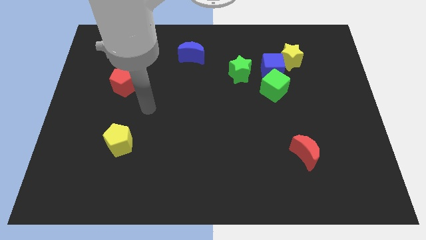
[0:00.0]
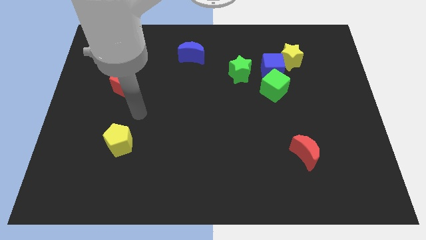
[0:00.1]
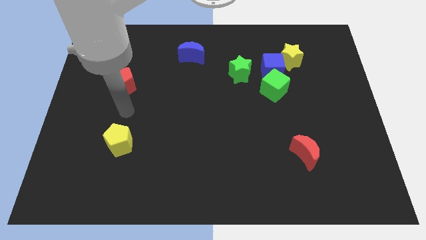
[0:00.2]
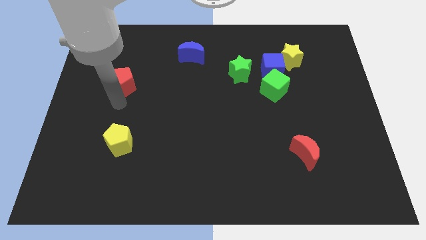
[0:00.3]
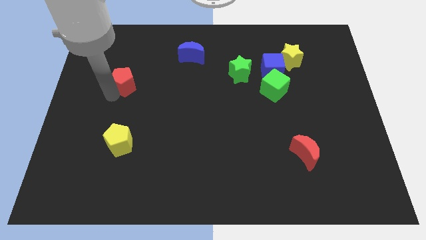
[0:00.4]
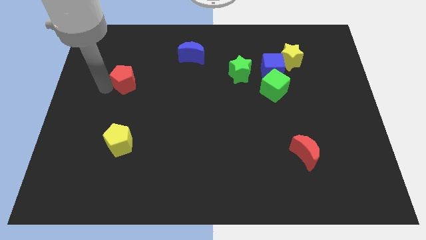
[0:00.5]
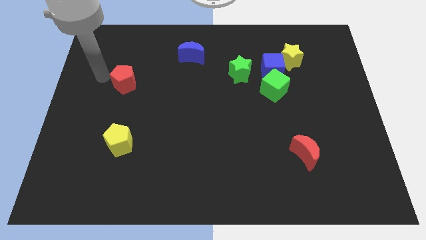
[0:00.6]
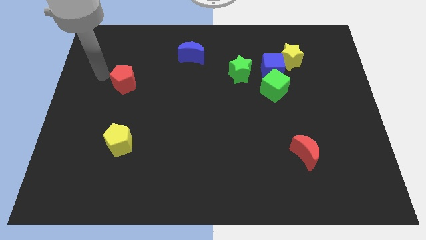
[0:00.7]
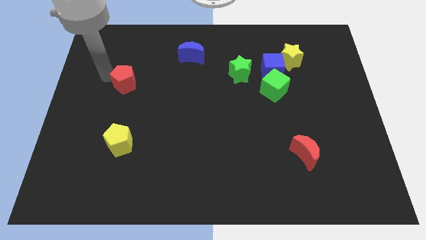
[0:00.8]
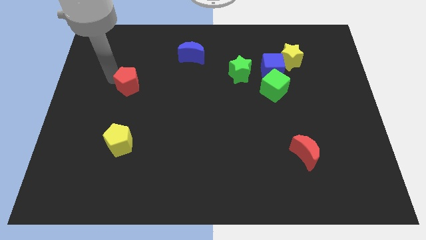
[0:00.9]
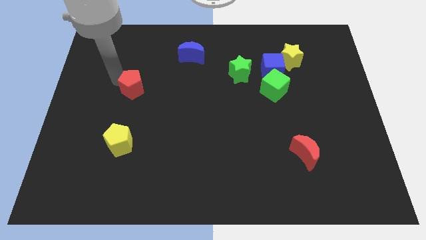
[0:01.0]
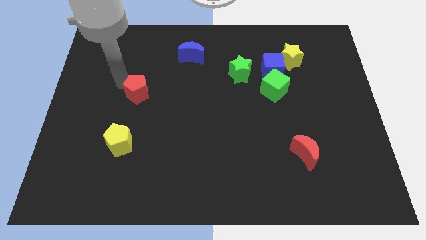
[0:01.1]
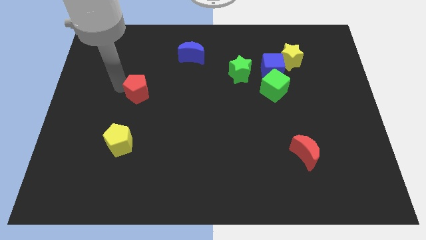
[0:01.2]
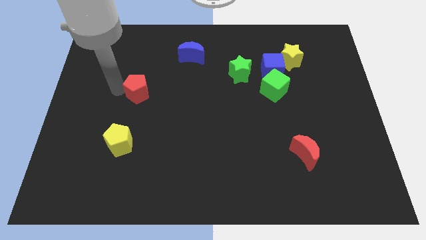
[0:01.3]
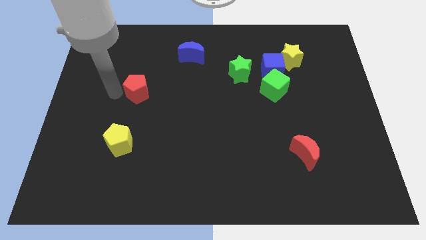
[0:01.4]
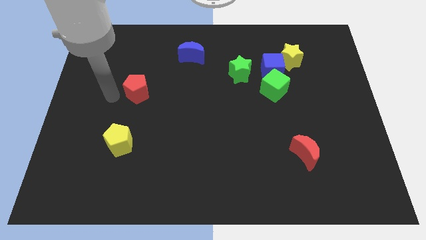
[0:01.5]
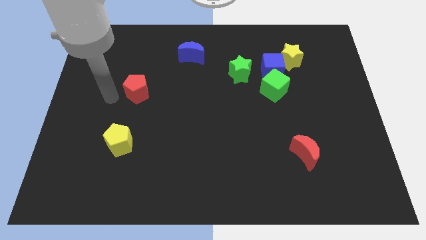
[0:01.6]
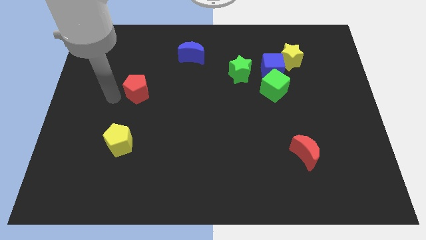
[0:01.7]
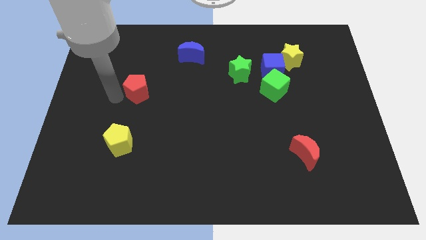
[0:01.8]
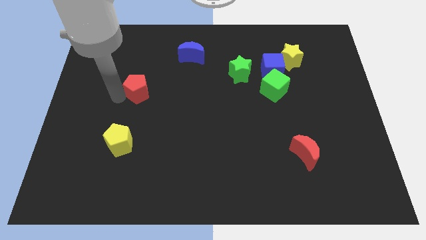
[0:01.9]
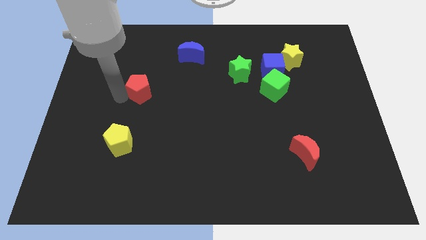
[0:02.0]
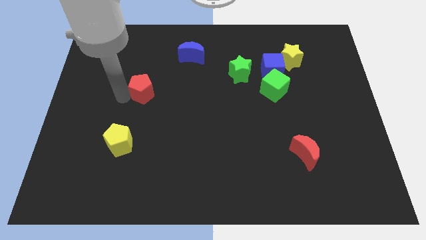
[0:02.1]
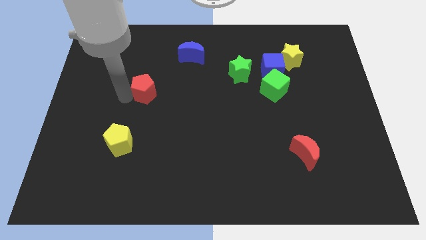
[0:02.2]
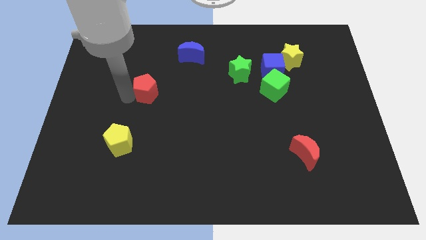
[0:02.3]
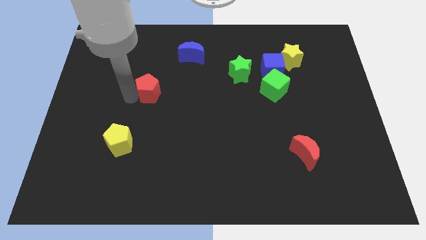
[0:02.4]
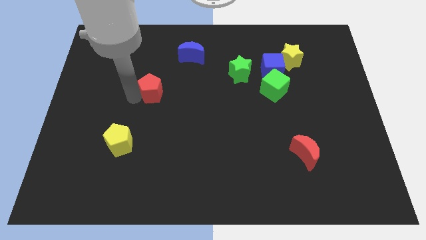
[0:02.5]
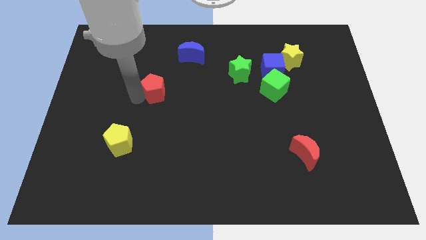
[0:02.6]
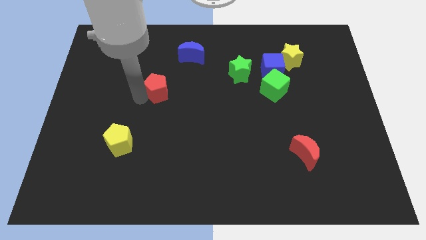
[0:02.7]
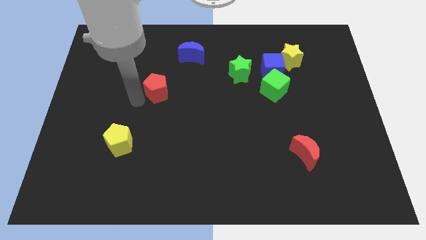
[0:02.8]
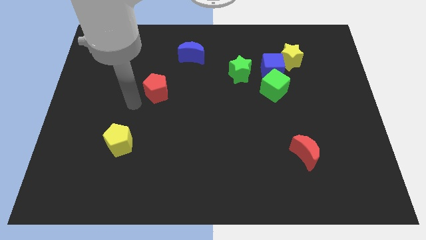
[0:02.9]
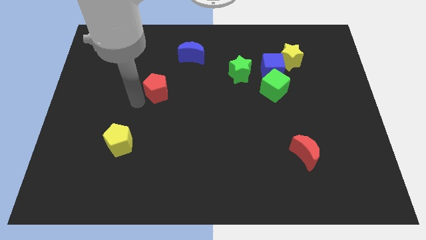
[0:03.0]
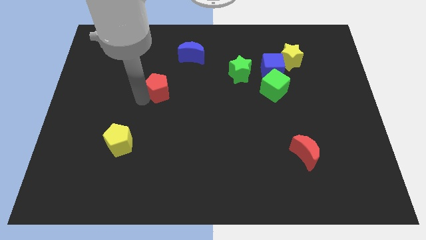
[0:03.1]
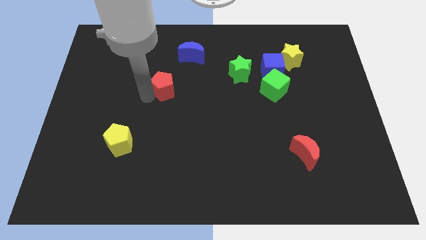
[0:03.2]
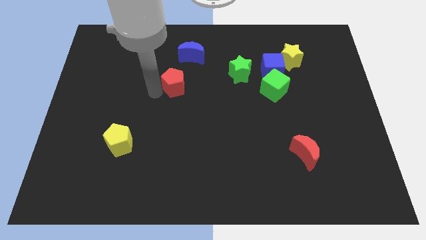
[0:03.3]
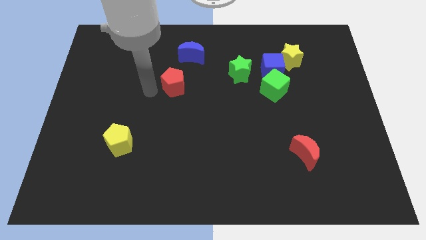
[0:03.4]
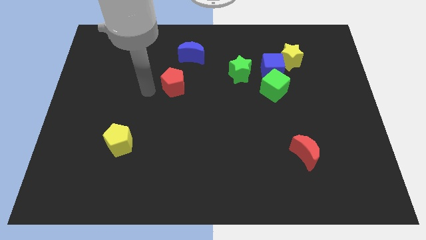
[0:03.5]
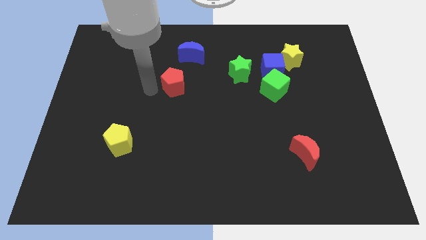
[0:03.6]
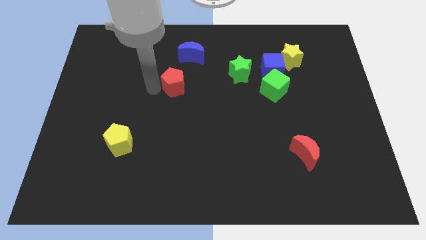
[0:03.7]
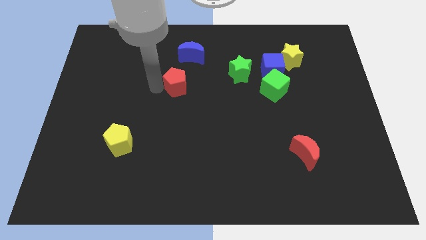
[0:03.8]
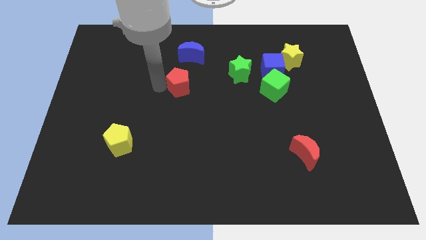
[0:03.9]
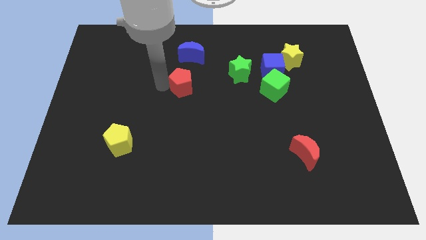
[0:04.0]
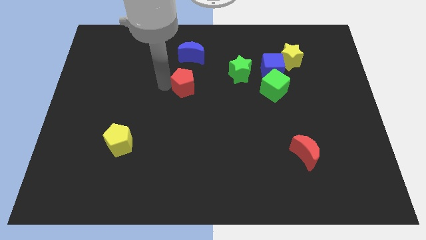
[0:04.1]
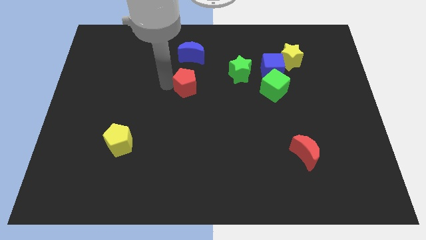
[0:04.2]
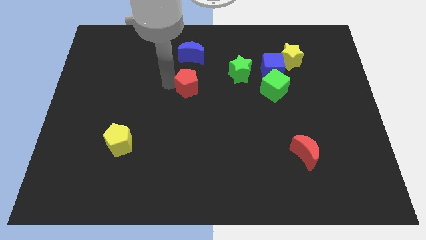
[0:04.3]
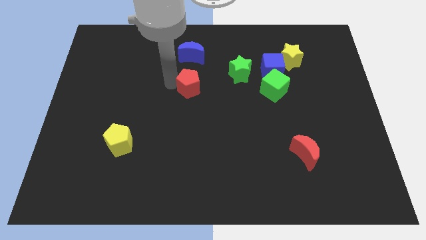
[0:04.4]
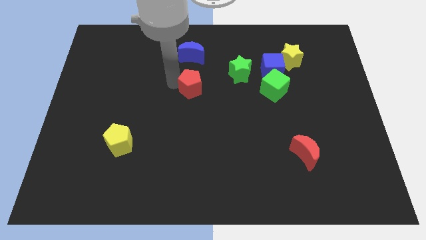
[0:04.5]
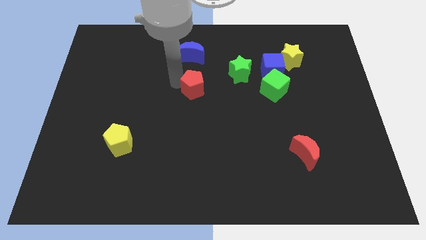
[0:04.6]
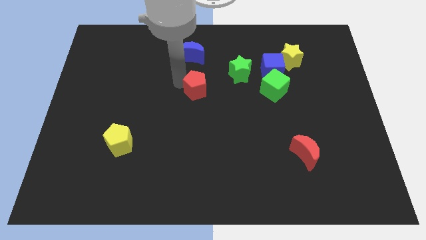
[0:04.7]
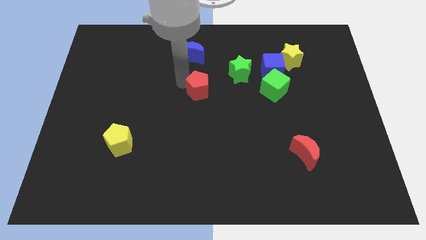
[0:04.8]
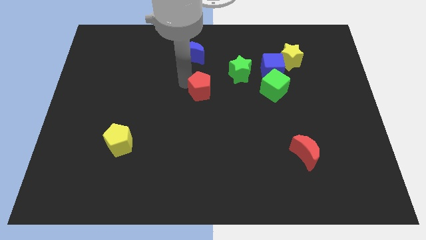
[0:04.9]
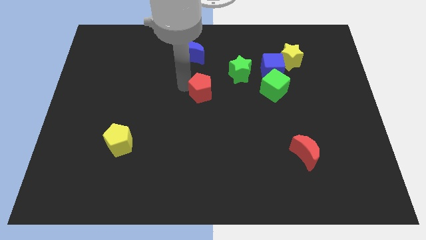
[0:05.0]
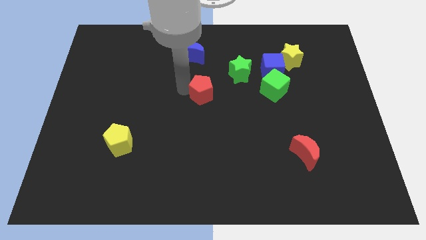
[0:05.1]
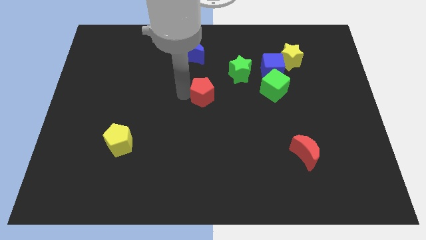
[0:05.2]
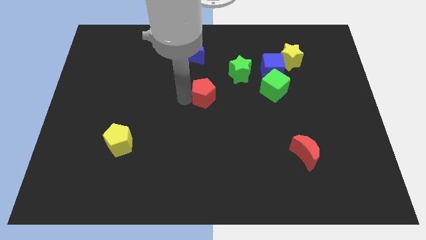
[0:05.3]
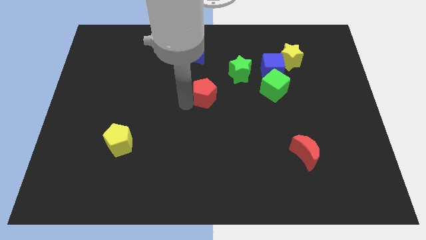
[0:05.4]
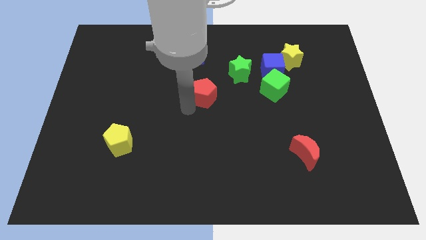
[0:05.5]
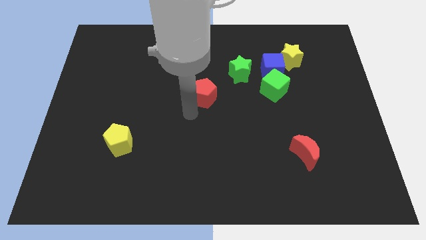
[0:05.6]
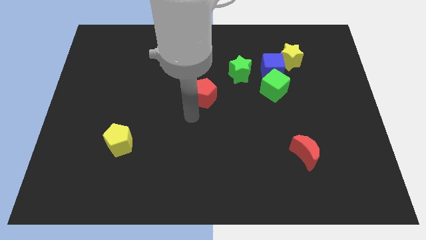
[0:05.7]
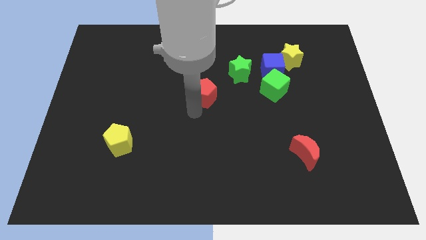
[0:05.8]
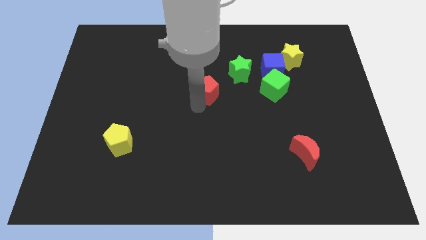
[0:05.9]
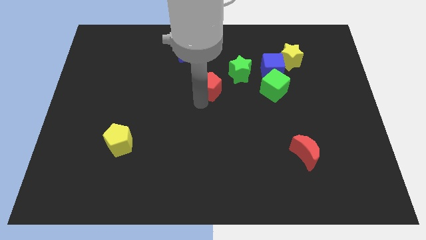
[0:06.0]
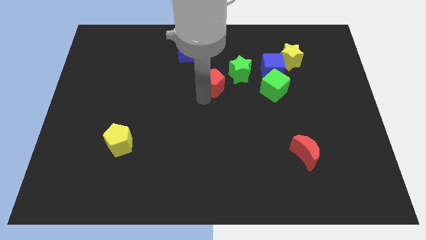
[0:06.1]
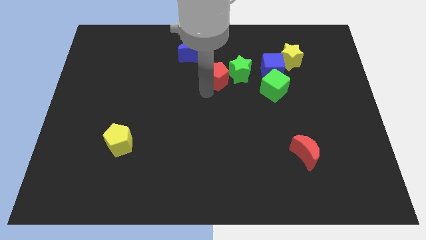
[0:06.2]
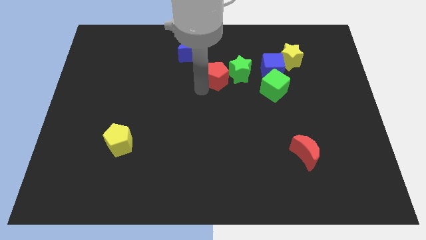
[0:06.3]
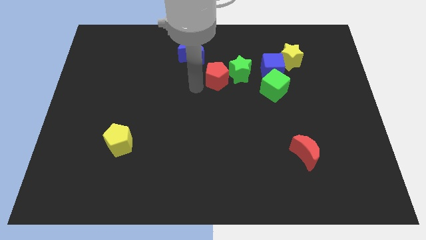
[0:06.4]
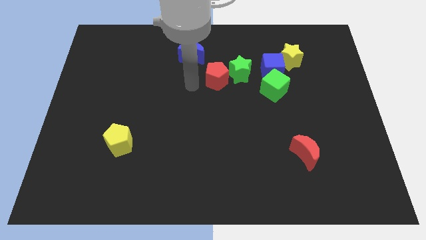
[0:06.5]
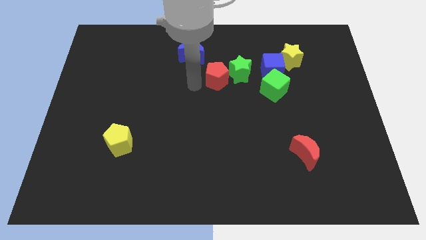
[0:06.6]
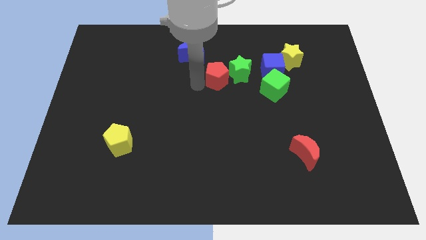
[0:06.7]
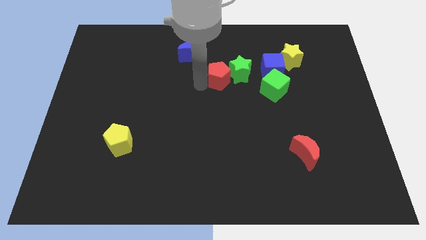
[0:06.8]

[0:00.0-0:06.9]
move the red pentagon close to the green star
